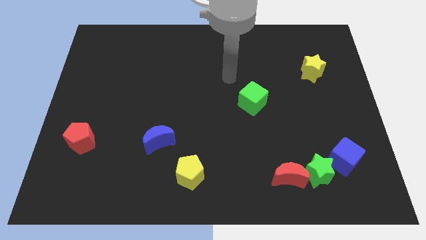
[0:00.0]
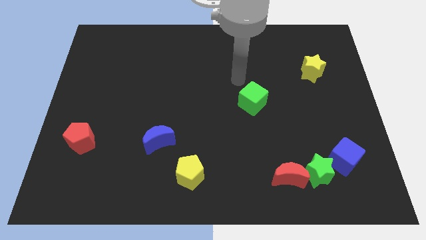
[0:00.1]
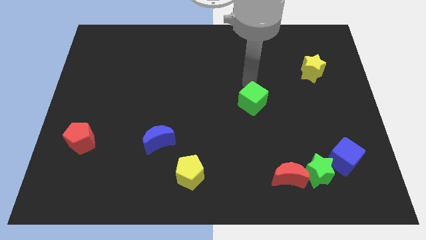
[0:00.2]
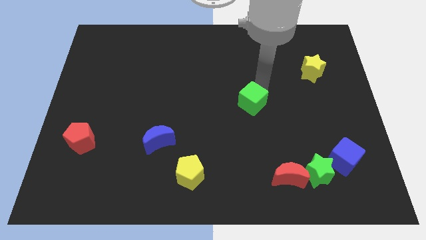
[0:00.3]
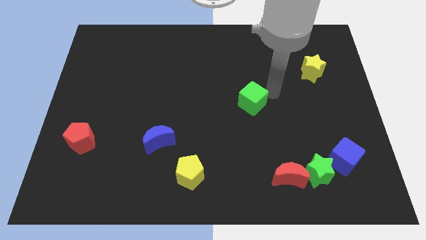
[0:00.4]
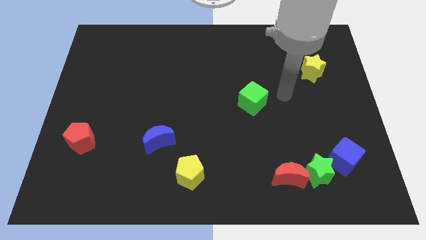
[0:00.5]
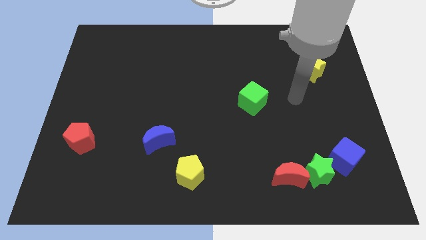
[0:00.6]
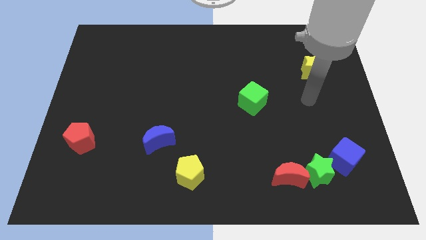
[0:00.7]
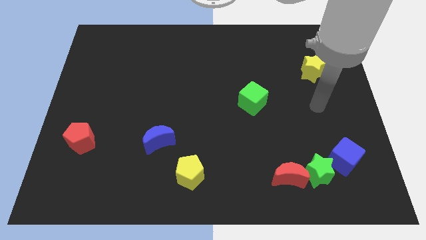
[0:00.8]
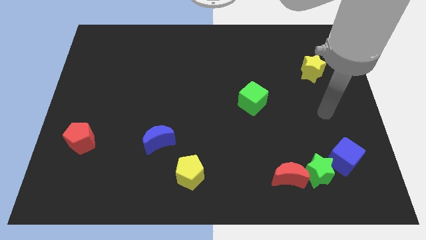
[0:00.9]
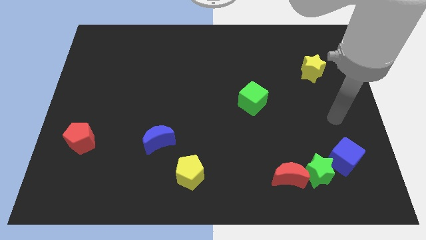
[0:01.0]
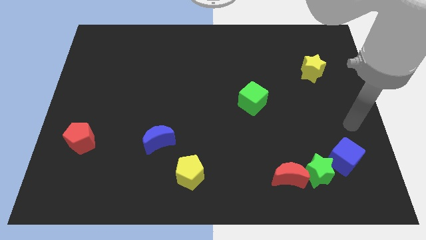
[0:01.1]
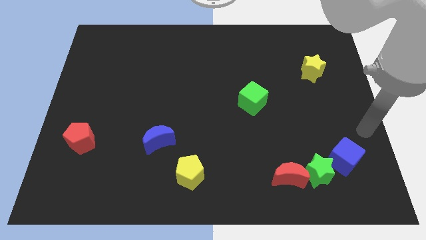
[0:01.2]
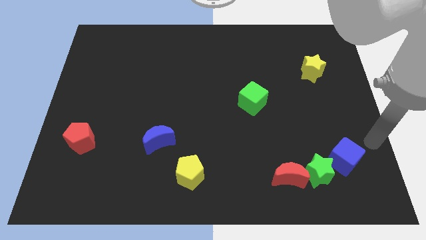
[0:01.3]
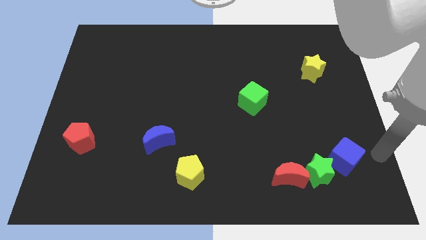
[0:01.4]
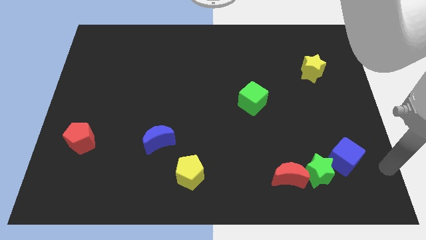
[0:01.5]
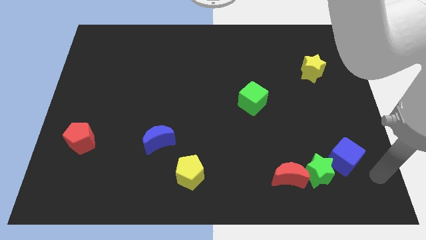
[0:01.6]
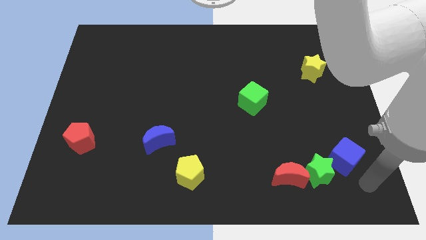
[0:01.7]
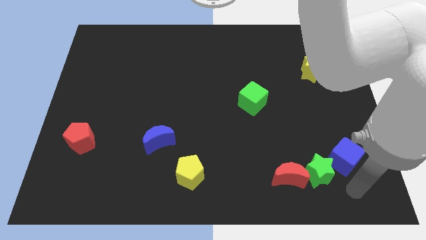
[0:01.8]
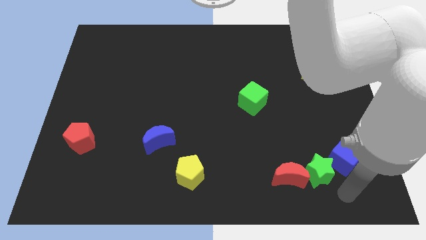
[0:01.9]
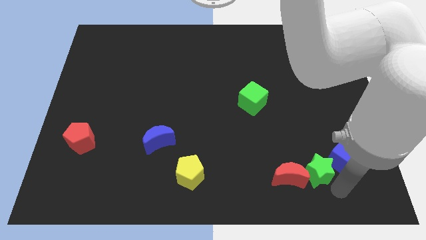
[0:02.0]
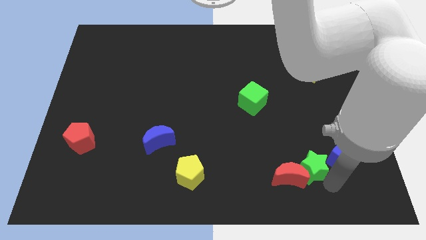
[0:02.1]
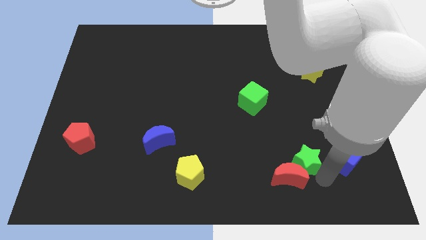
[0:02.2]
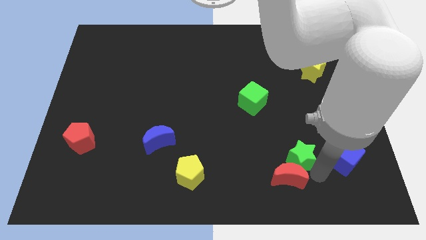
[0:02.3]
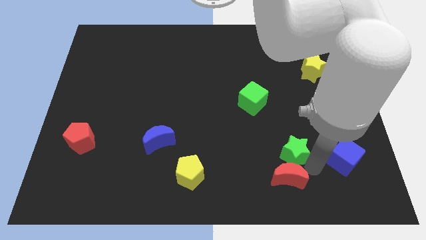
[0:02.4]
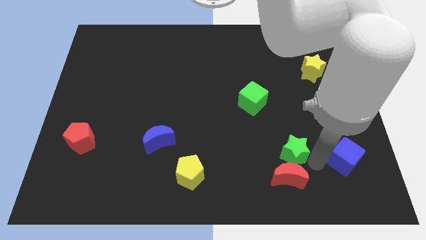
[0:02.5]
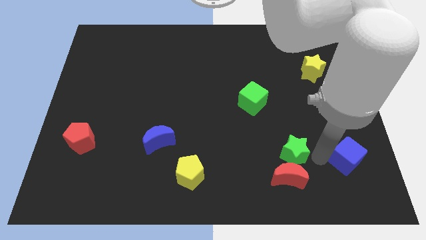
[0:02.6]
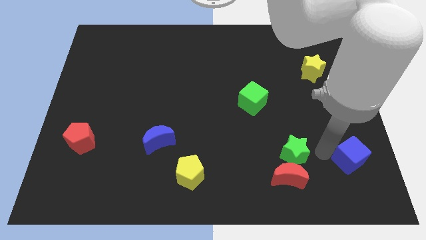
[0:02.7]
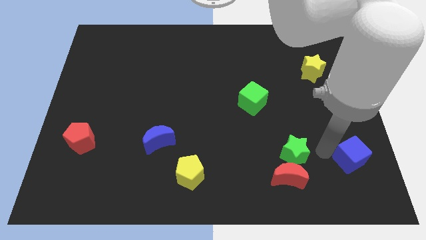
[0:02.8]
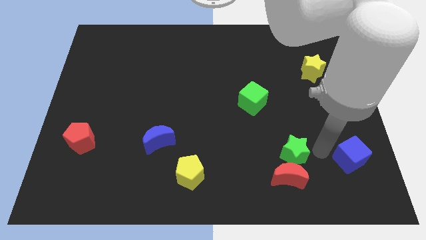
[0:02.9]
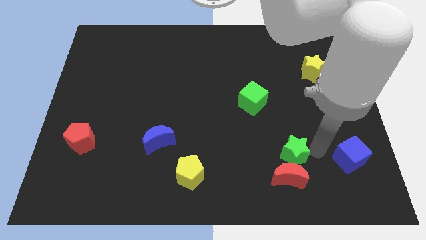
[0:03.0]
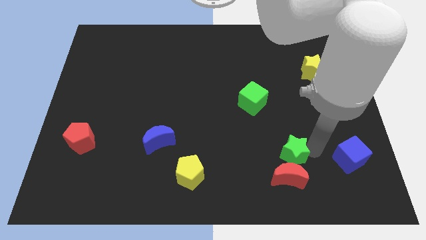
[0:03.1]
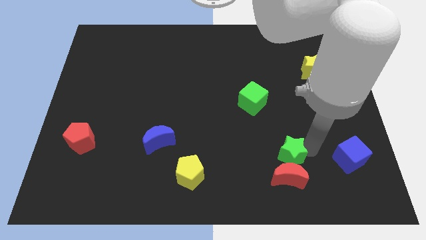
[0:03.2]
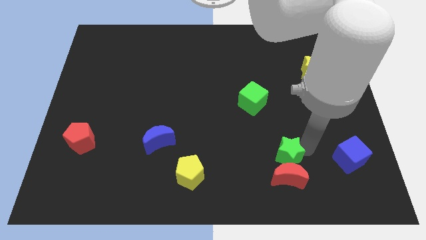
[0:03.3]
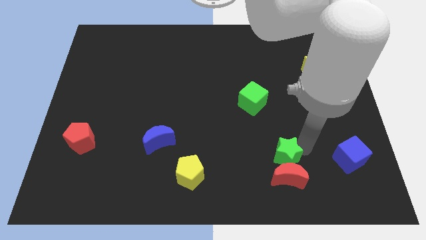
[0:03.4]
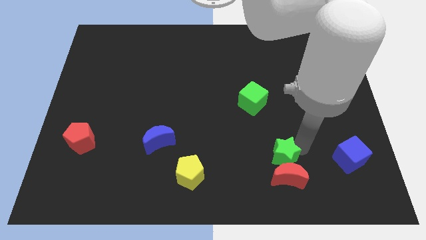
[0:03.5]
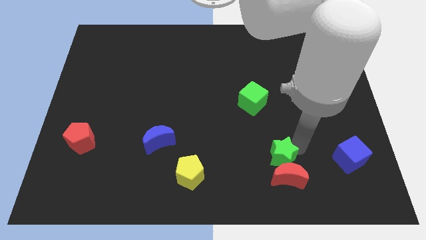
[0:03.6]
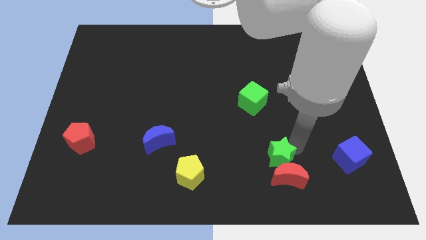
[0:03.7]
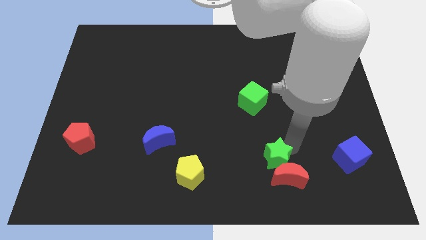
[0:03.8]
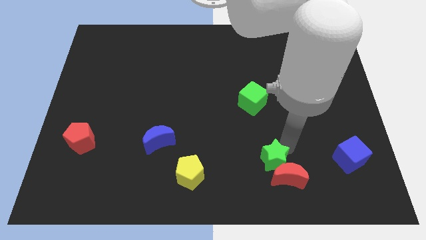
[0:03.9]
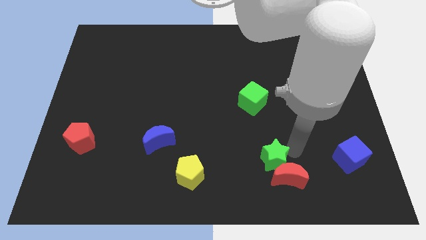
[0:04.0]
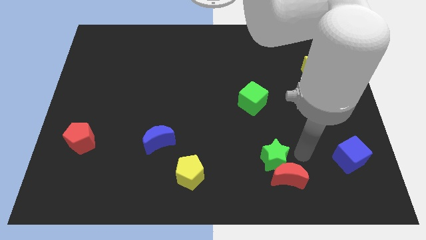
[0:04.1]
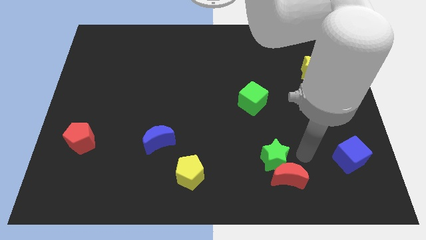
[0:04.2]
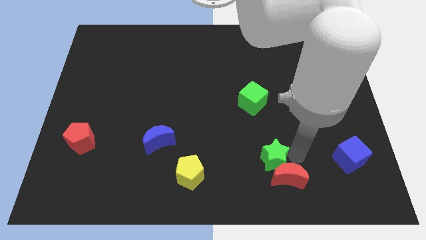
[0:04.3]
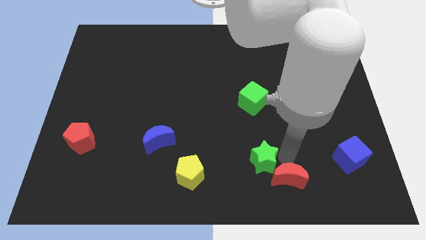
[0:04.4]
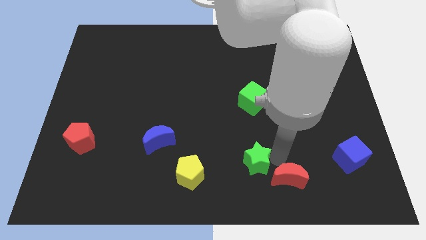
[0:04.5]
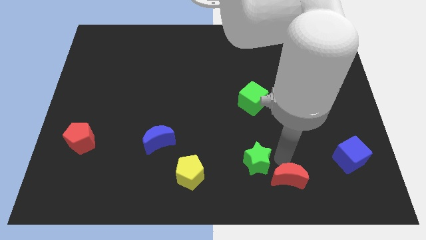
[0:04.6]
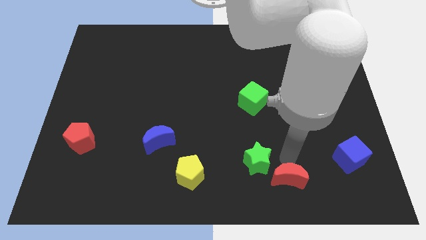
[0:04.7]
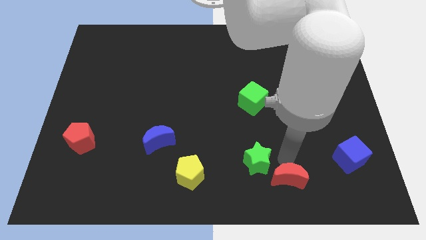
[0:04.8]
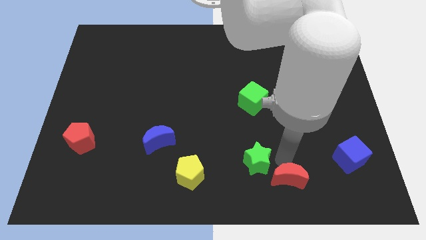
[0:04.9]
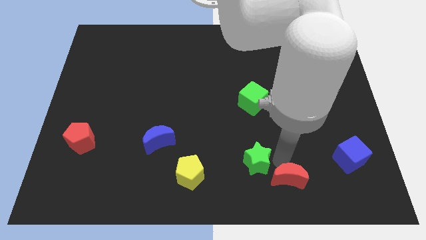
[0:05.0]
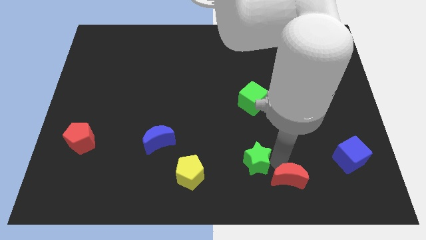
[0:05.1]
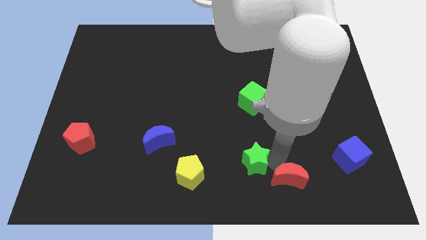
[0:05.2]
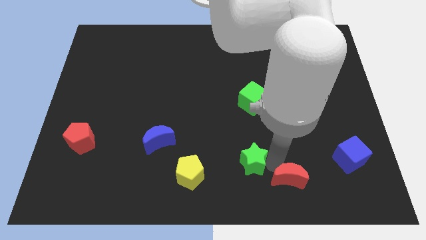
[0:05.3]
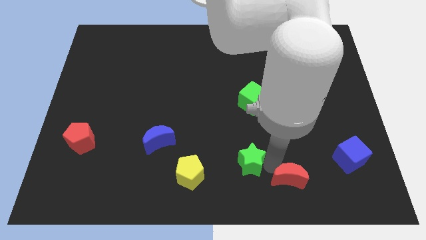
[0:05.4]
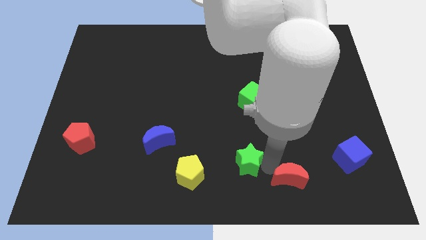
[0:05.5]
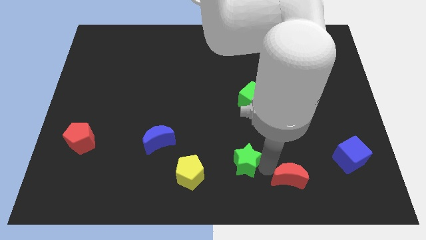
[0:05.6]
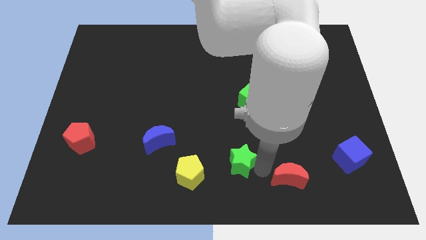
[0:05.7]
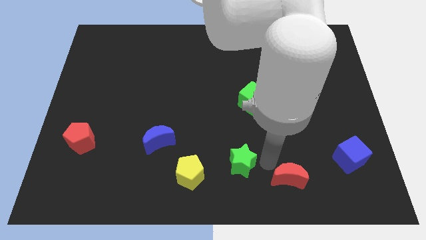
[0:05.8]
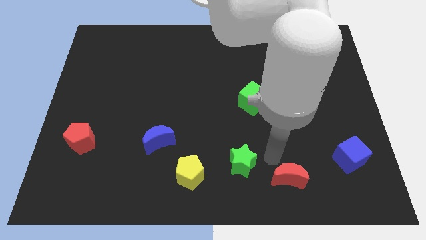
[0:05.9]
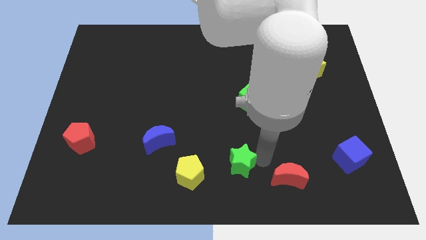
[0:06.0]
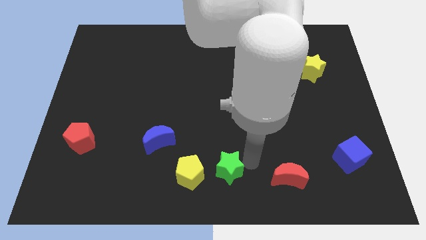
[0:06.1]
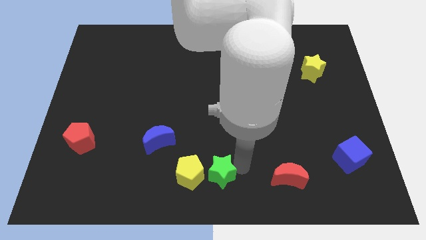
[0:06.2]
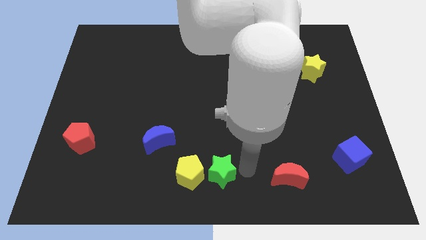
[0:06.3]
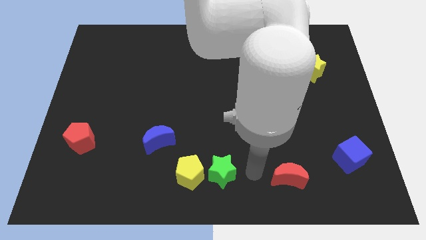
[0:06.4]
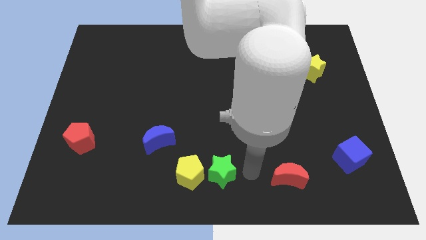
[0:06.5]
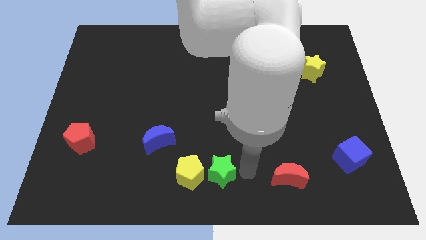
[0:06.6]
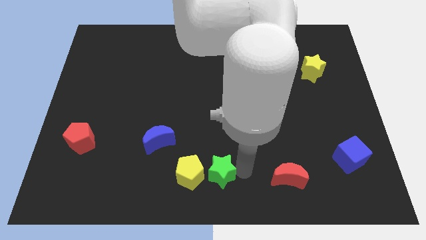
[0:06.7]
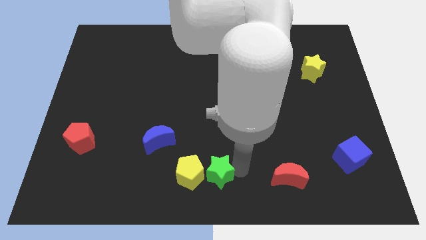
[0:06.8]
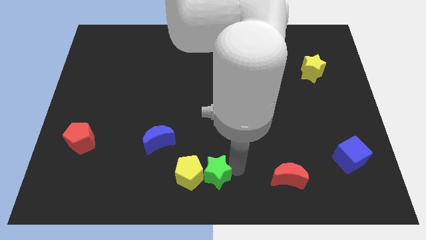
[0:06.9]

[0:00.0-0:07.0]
put the green star next to the yellow pentagon

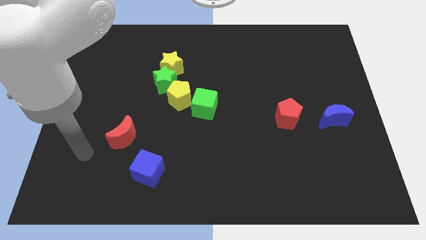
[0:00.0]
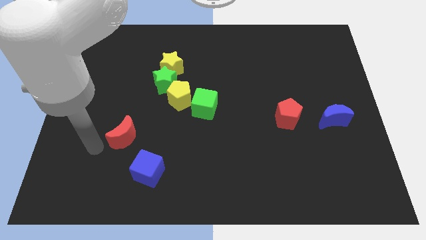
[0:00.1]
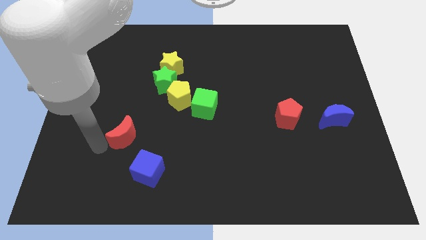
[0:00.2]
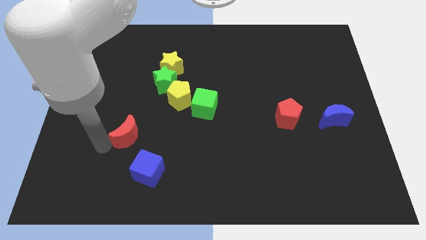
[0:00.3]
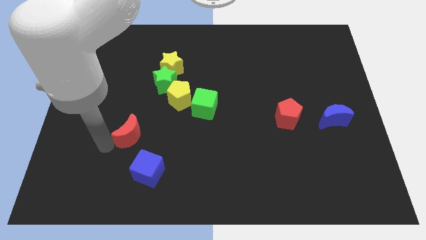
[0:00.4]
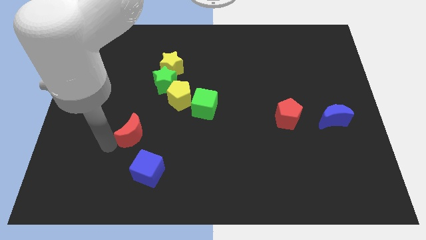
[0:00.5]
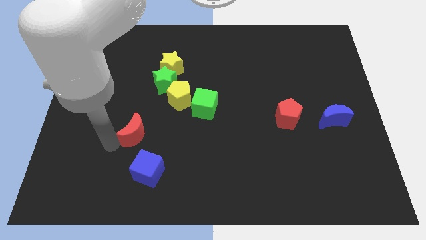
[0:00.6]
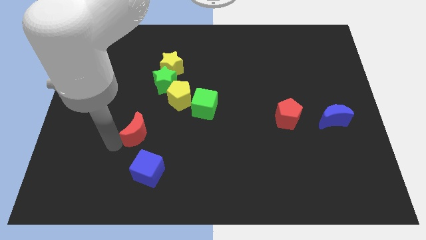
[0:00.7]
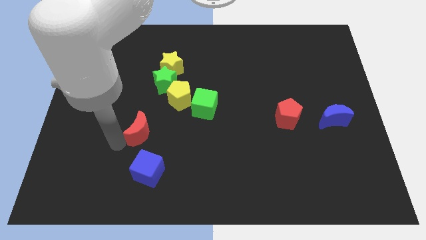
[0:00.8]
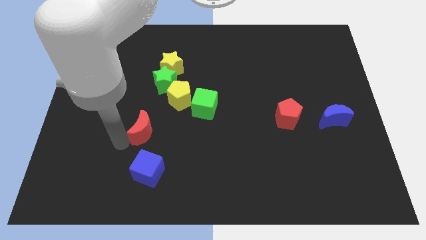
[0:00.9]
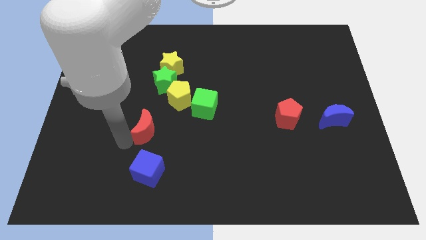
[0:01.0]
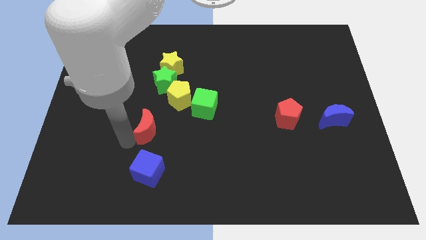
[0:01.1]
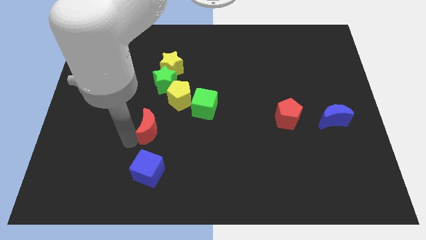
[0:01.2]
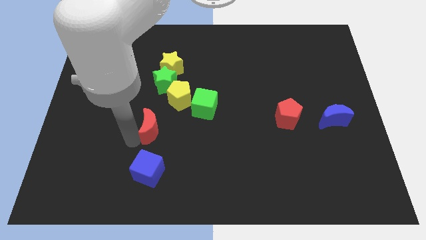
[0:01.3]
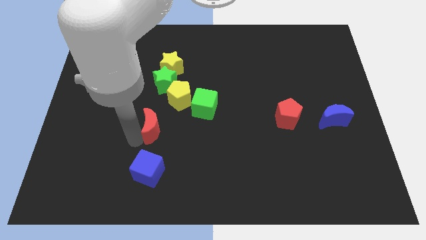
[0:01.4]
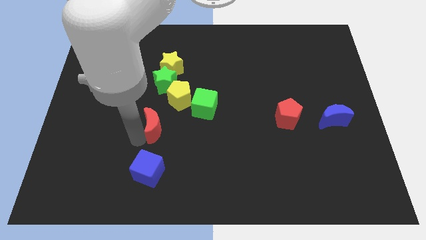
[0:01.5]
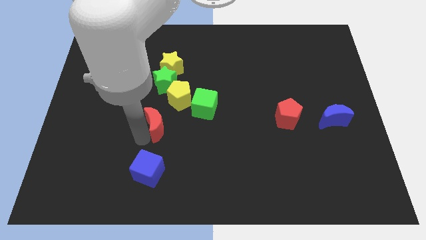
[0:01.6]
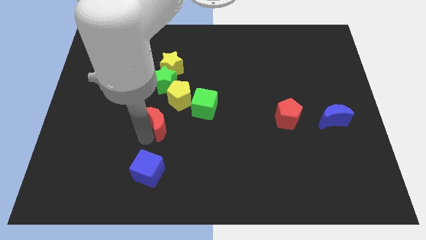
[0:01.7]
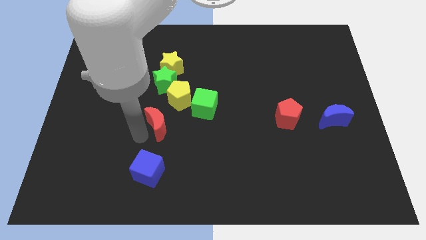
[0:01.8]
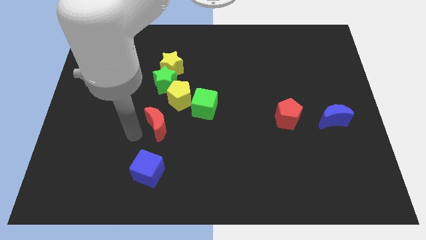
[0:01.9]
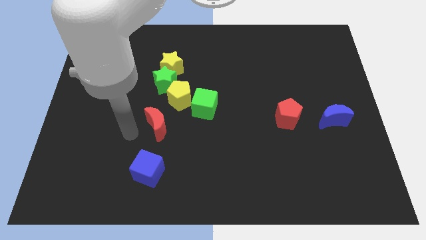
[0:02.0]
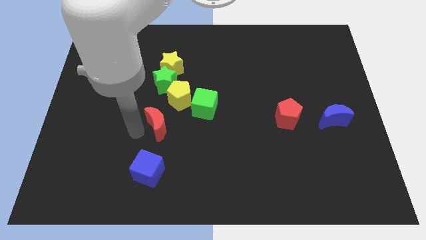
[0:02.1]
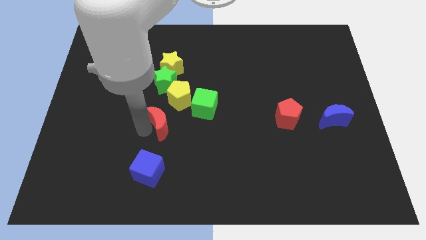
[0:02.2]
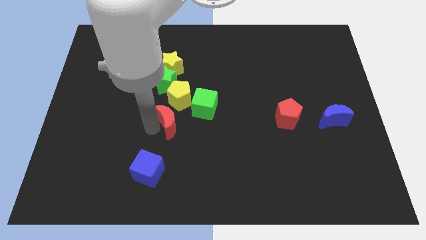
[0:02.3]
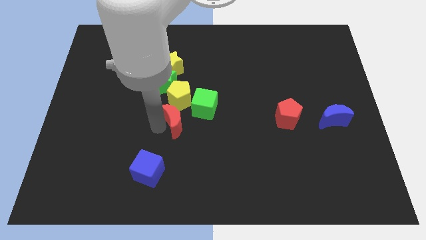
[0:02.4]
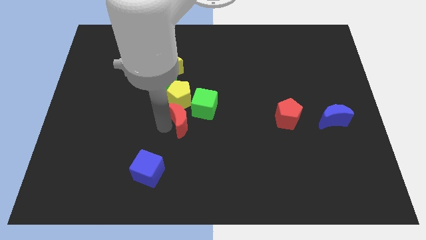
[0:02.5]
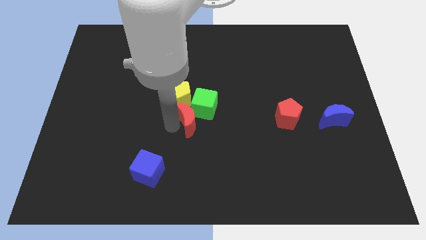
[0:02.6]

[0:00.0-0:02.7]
push the red moon next to the green cube
